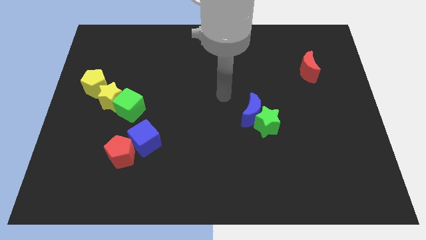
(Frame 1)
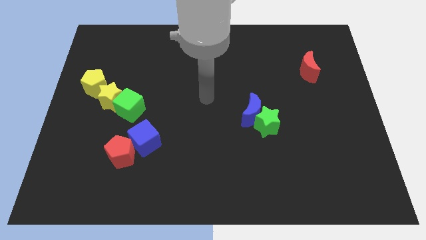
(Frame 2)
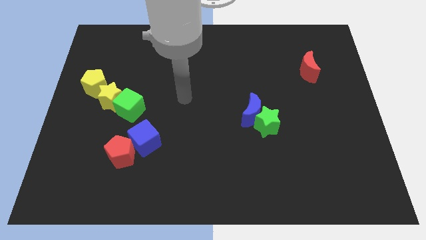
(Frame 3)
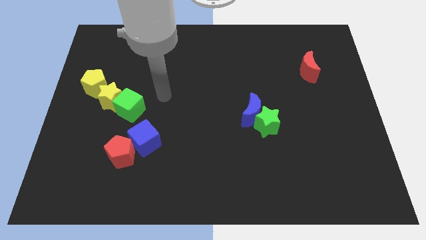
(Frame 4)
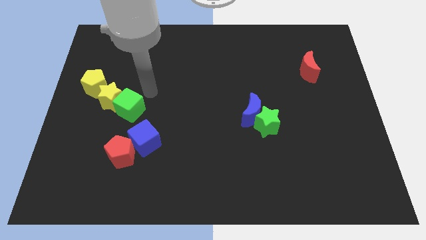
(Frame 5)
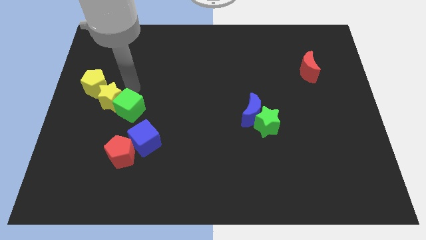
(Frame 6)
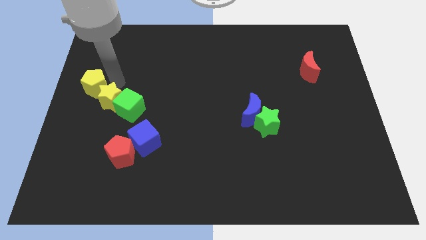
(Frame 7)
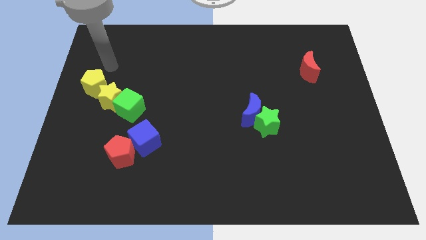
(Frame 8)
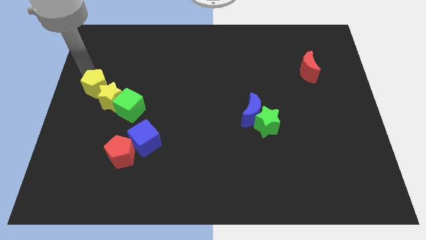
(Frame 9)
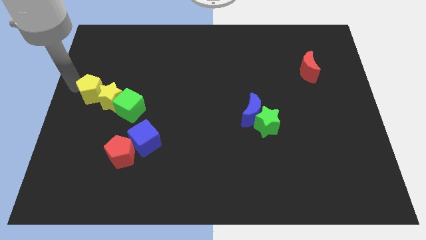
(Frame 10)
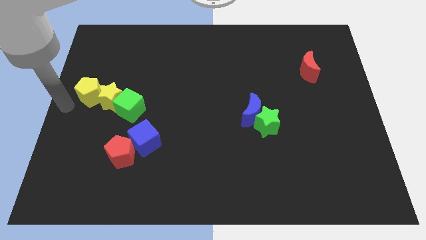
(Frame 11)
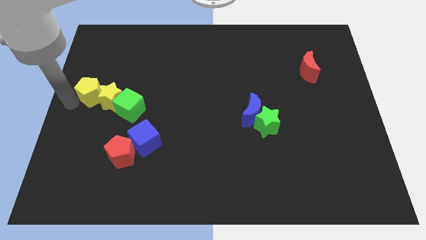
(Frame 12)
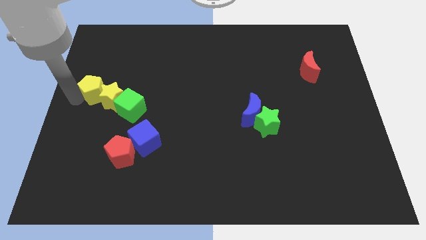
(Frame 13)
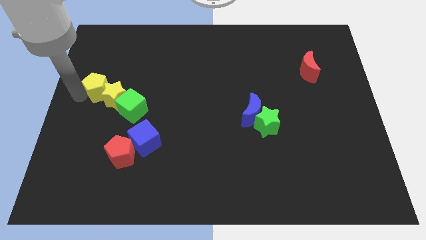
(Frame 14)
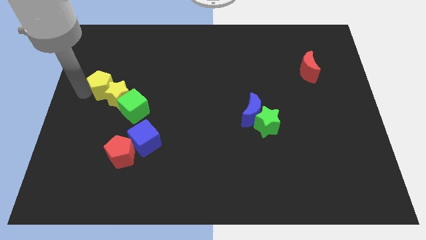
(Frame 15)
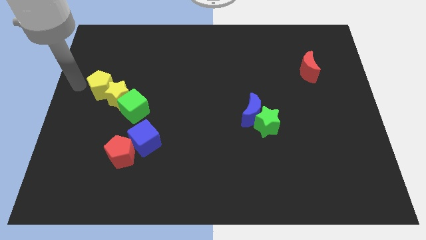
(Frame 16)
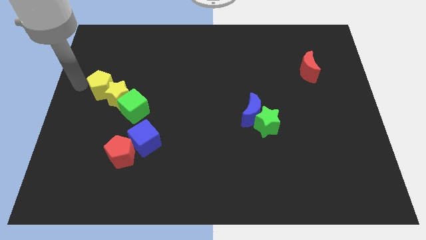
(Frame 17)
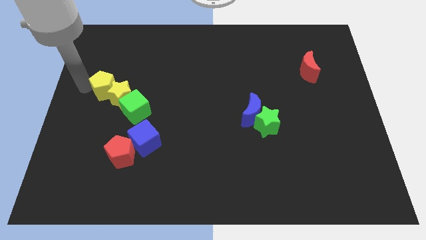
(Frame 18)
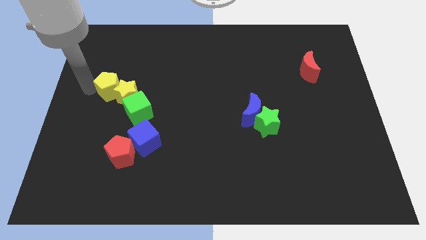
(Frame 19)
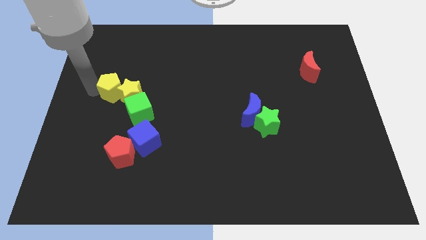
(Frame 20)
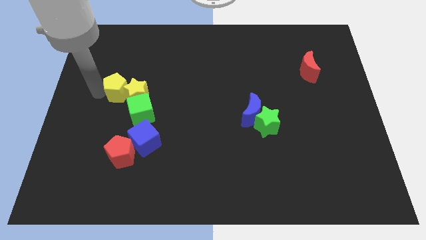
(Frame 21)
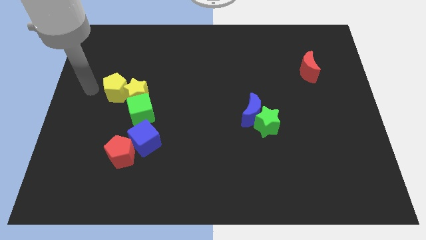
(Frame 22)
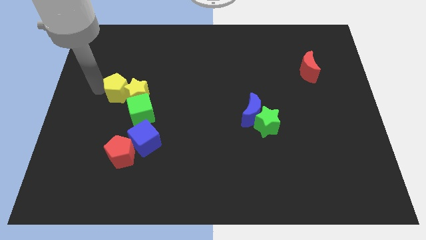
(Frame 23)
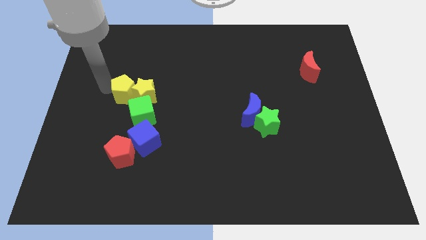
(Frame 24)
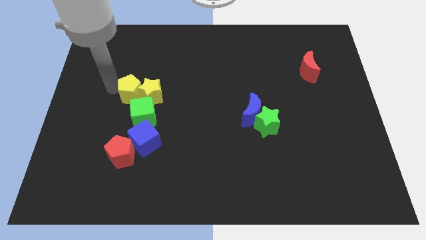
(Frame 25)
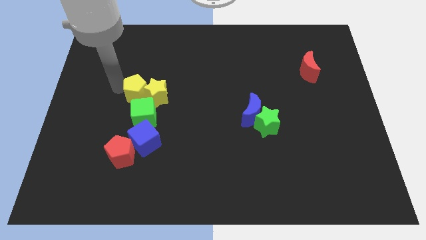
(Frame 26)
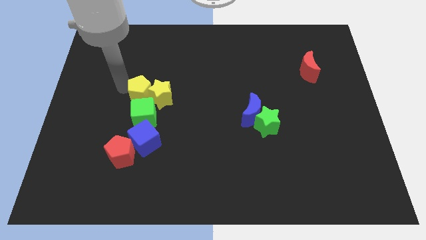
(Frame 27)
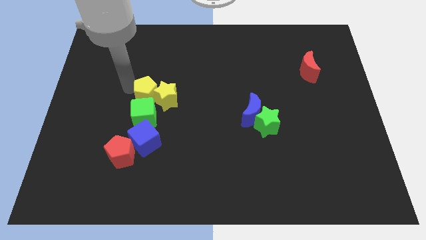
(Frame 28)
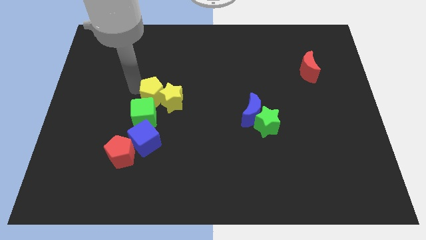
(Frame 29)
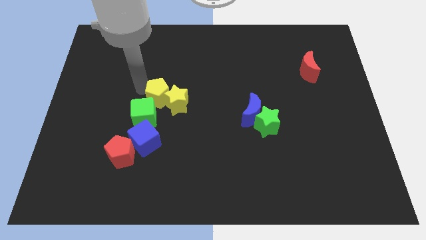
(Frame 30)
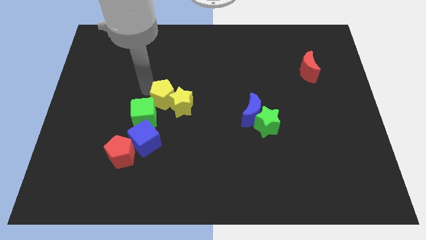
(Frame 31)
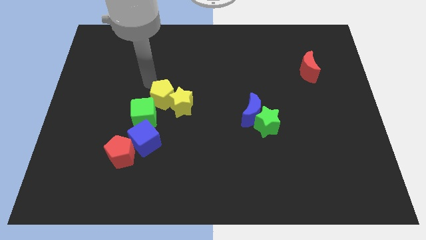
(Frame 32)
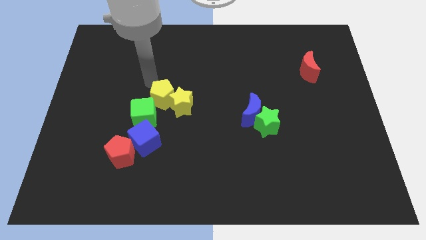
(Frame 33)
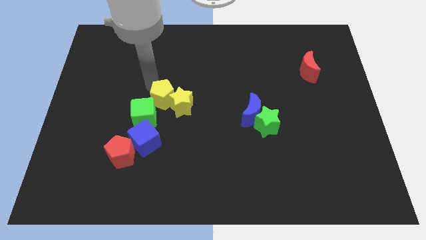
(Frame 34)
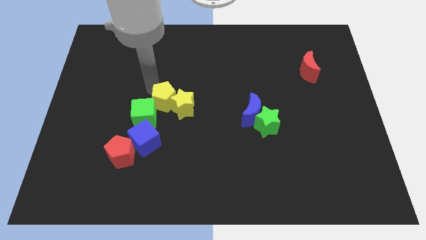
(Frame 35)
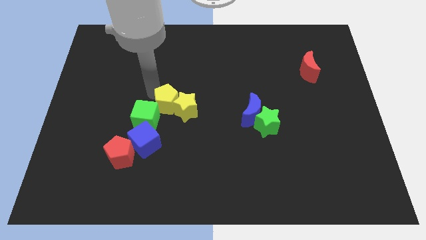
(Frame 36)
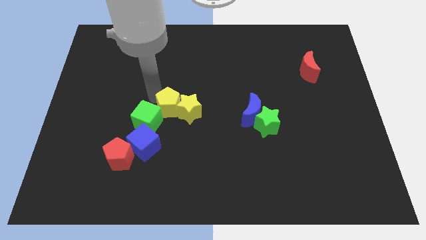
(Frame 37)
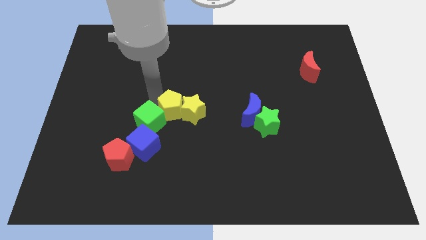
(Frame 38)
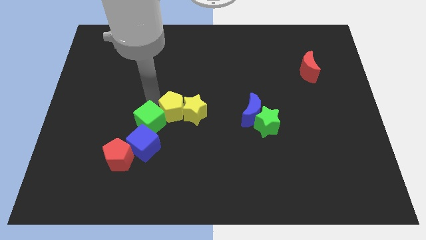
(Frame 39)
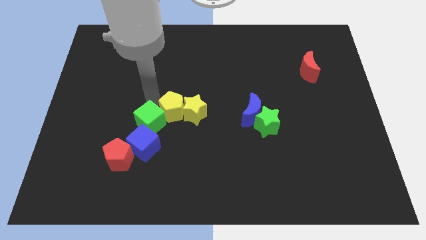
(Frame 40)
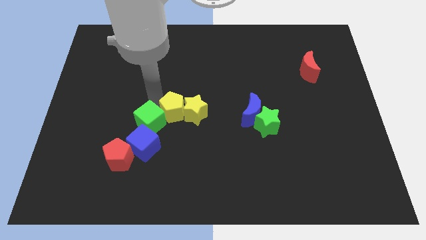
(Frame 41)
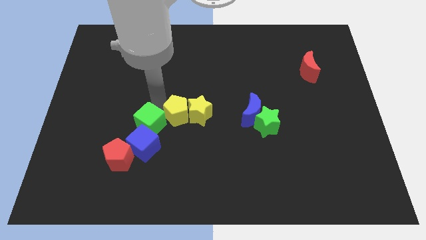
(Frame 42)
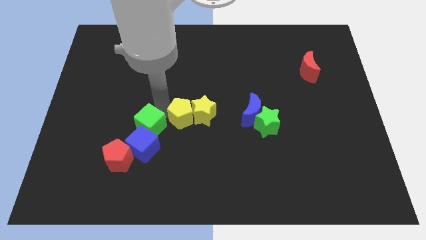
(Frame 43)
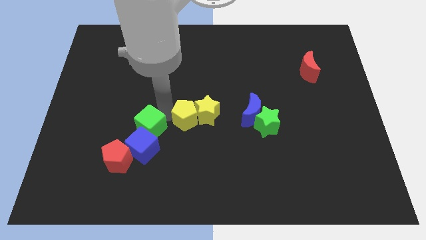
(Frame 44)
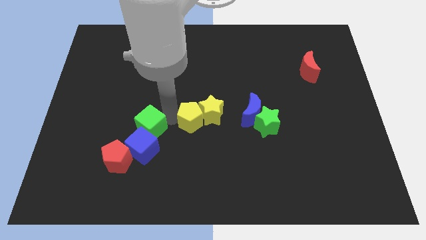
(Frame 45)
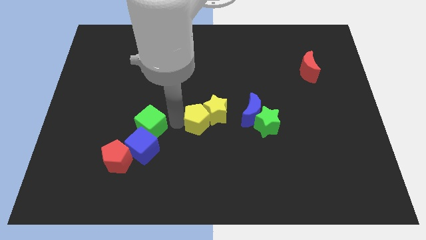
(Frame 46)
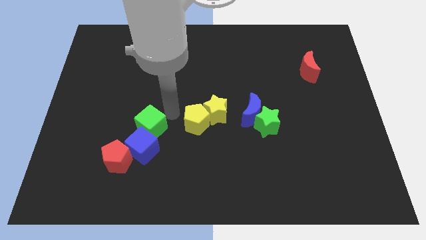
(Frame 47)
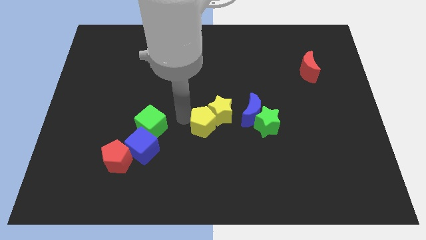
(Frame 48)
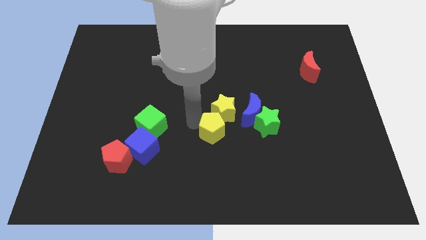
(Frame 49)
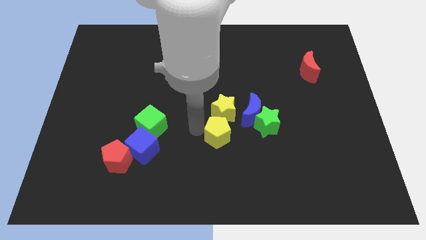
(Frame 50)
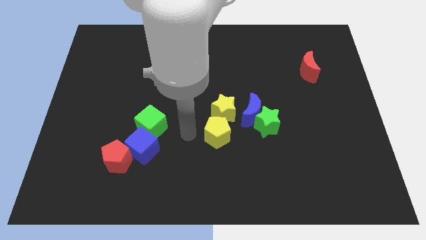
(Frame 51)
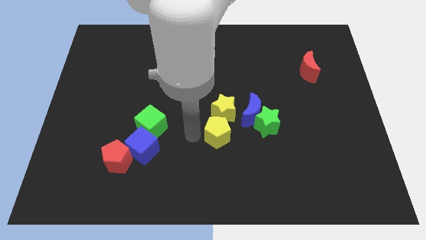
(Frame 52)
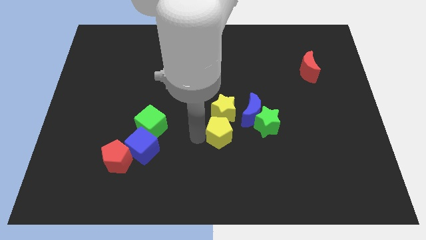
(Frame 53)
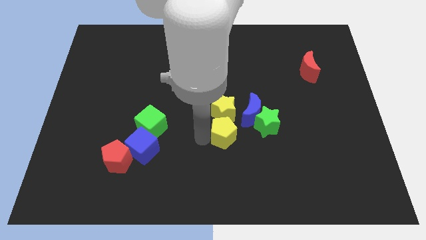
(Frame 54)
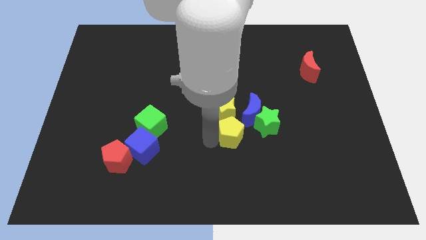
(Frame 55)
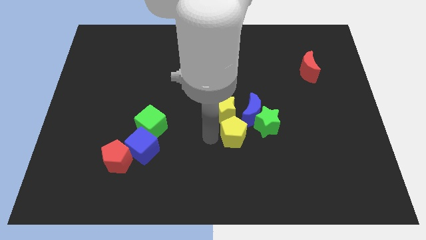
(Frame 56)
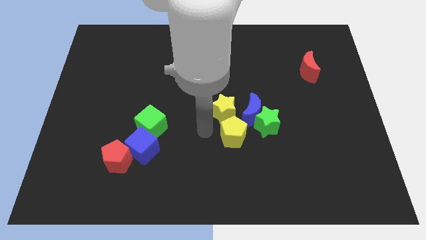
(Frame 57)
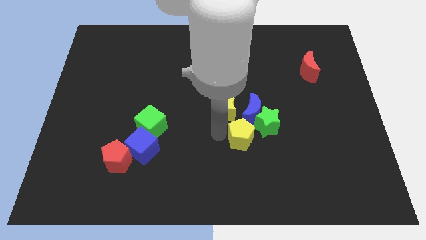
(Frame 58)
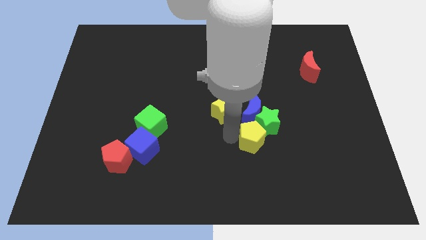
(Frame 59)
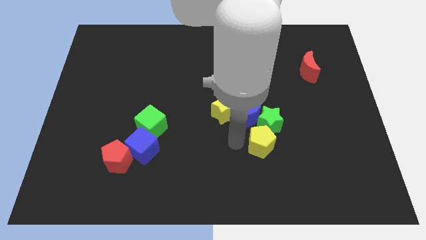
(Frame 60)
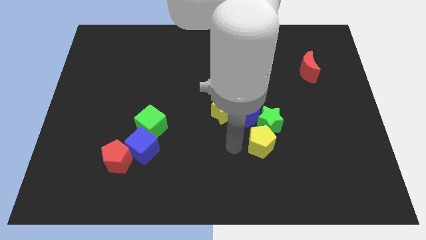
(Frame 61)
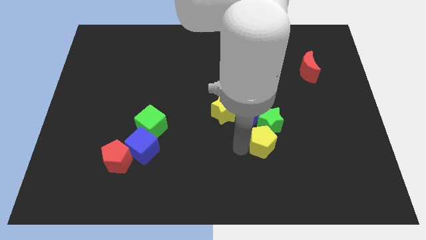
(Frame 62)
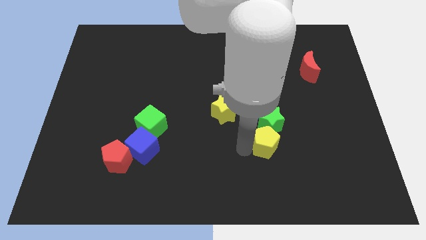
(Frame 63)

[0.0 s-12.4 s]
put the yellow pentagon to the bottom right side of the green star
